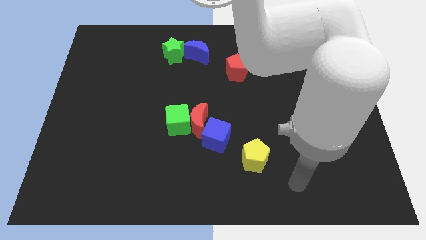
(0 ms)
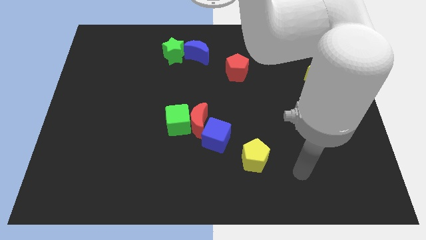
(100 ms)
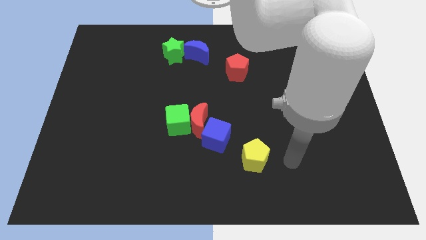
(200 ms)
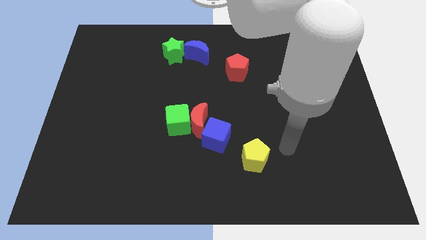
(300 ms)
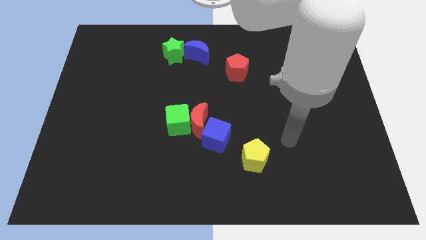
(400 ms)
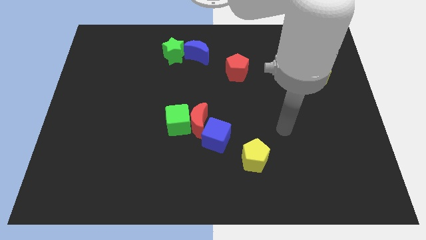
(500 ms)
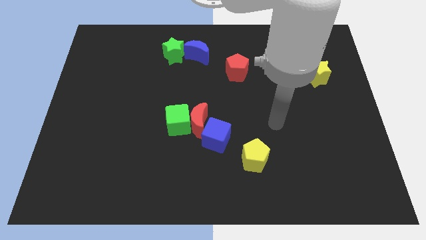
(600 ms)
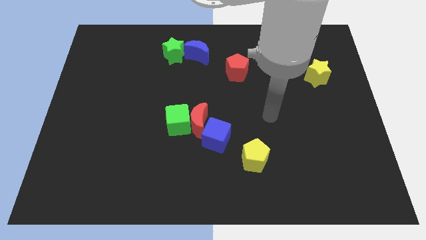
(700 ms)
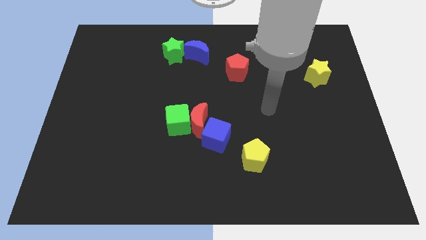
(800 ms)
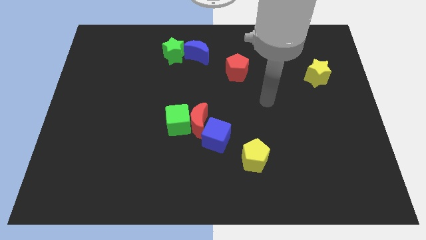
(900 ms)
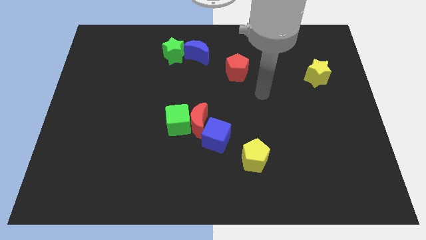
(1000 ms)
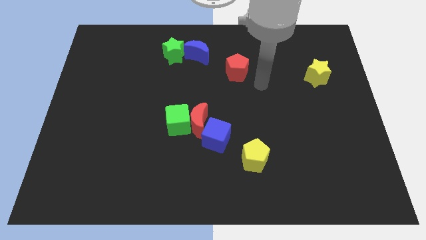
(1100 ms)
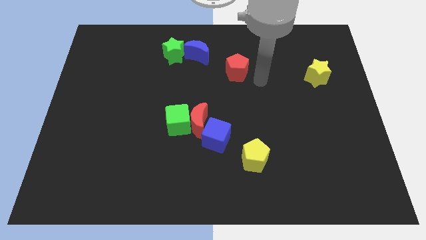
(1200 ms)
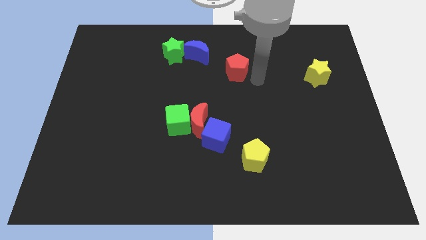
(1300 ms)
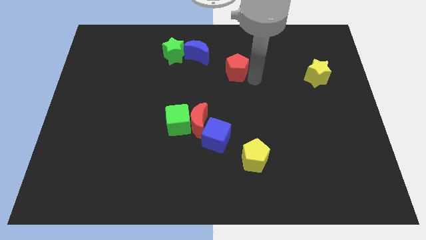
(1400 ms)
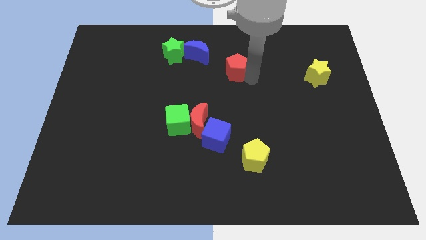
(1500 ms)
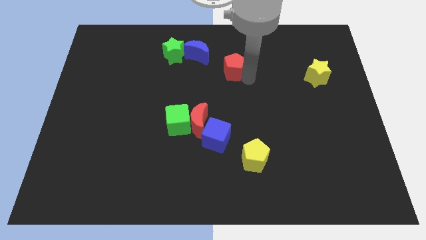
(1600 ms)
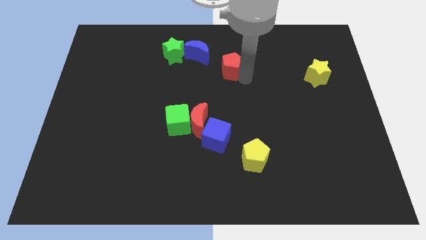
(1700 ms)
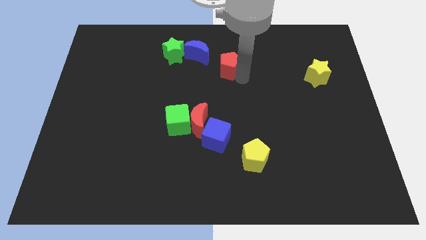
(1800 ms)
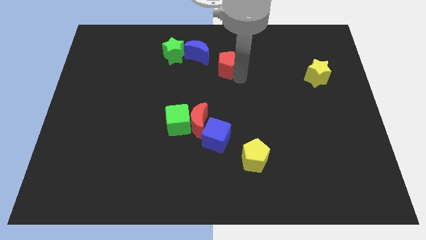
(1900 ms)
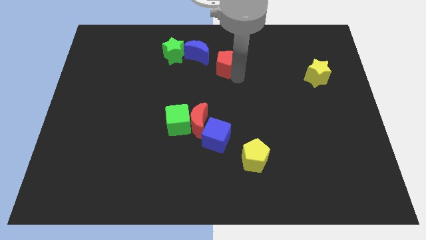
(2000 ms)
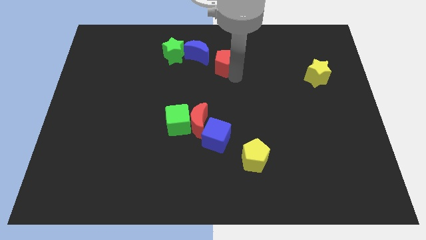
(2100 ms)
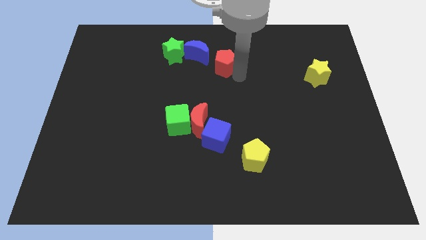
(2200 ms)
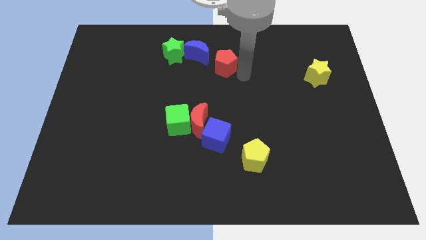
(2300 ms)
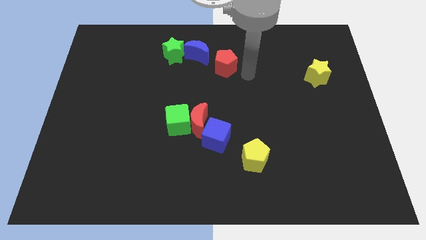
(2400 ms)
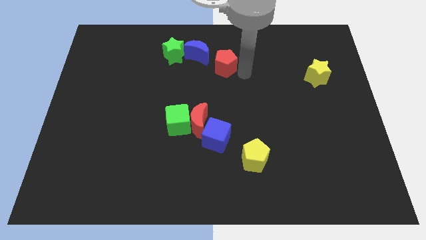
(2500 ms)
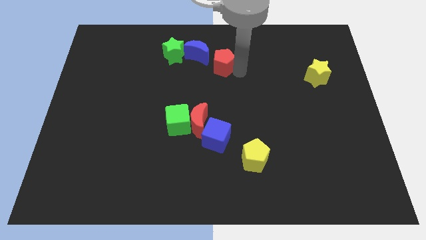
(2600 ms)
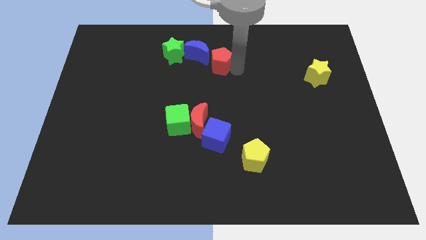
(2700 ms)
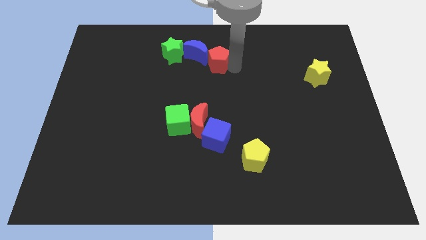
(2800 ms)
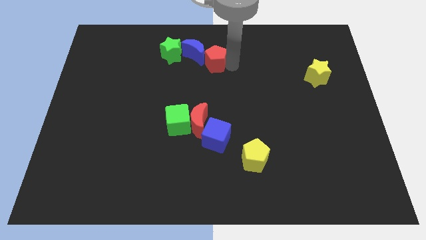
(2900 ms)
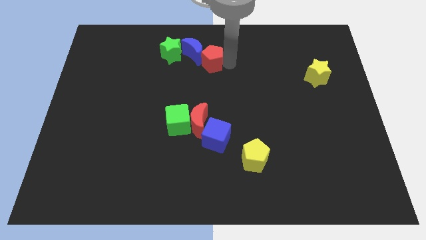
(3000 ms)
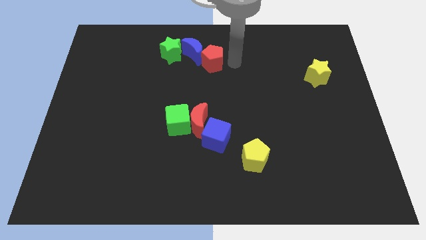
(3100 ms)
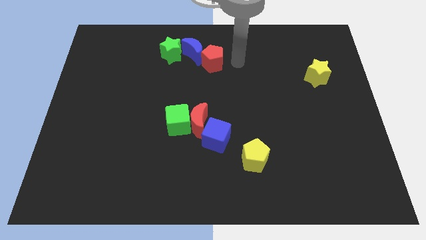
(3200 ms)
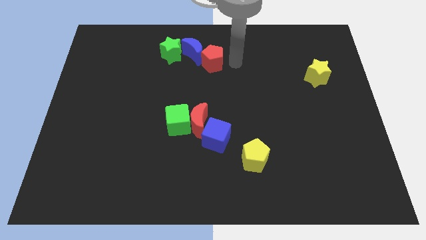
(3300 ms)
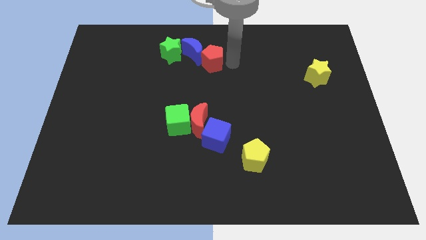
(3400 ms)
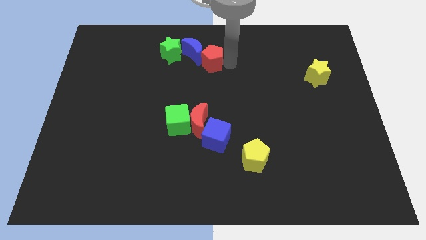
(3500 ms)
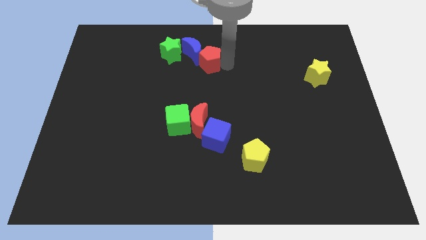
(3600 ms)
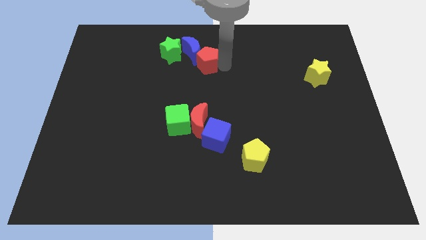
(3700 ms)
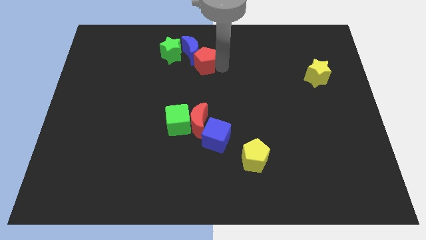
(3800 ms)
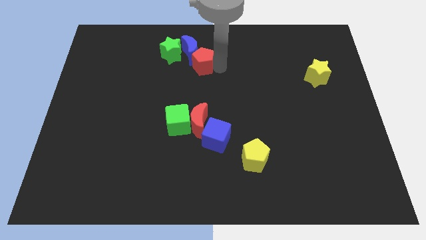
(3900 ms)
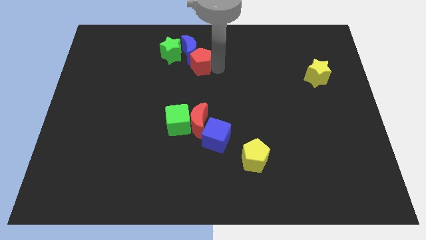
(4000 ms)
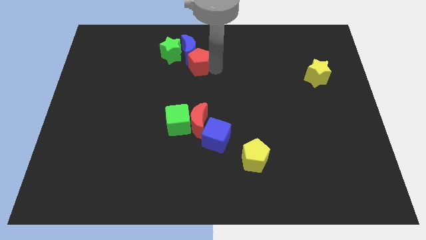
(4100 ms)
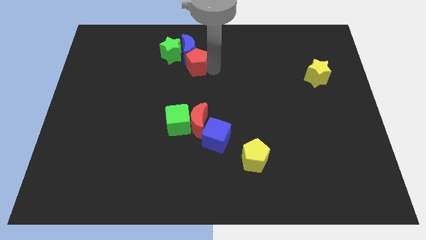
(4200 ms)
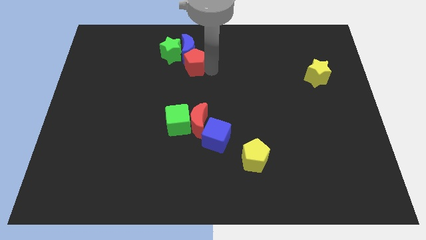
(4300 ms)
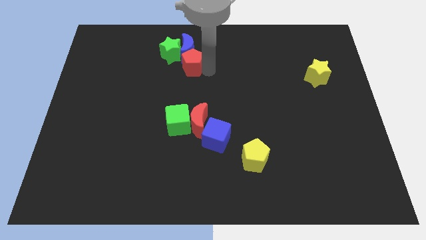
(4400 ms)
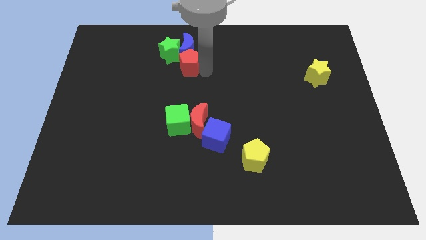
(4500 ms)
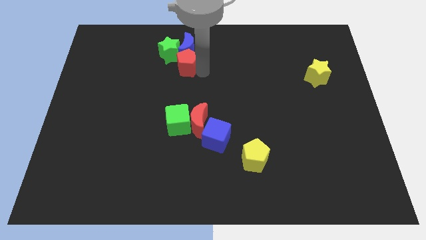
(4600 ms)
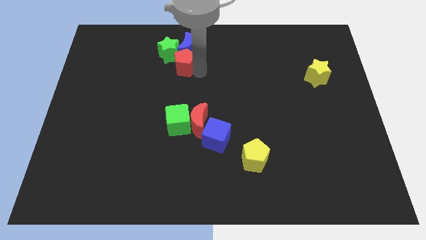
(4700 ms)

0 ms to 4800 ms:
put the red pentagon close to the green star

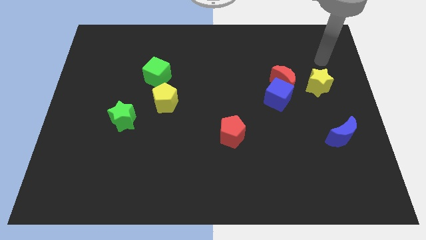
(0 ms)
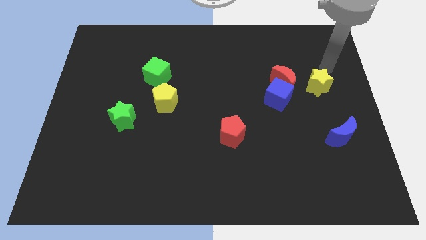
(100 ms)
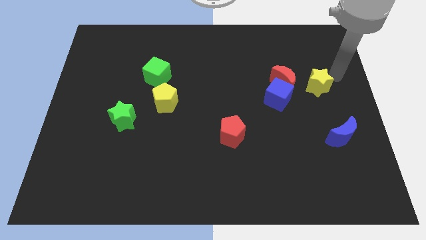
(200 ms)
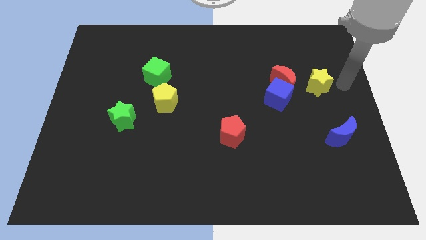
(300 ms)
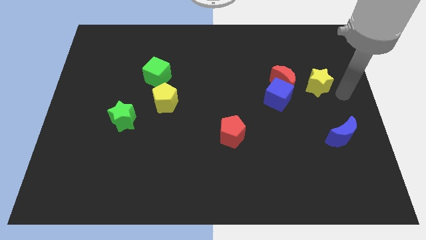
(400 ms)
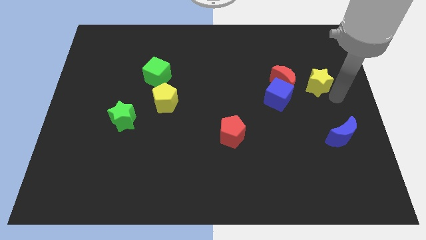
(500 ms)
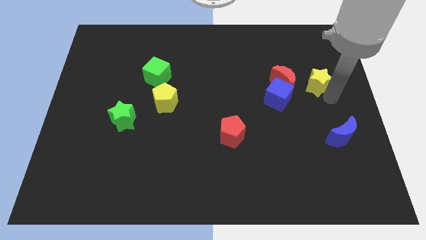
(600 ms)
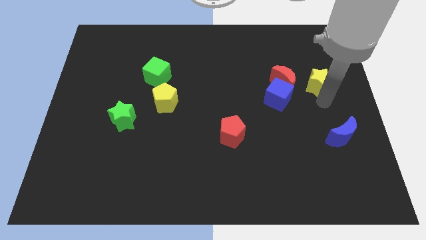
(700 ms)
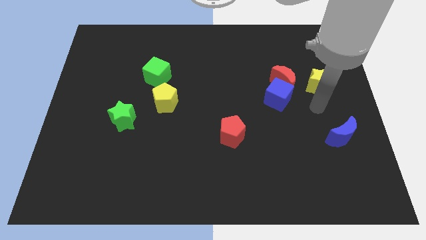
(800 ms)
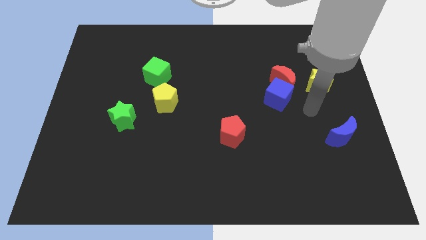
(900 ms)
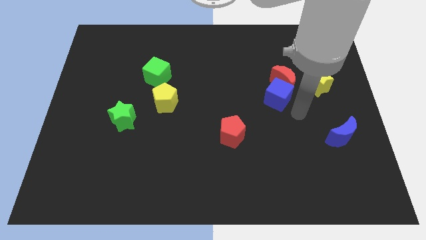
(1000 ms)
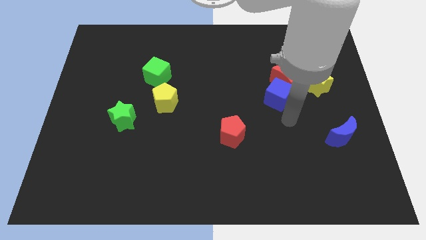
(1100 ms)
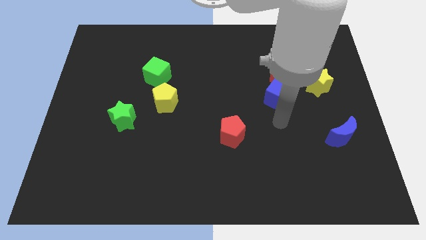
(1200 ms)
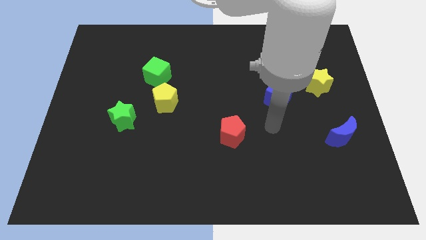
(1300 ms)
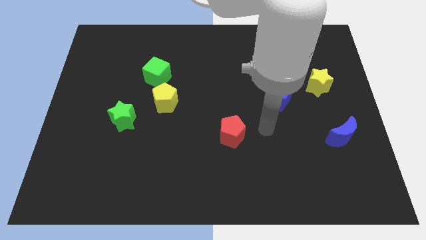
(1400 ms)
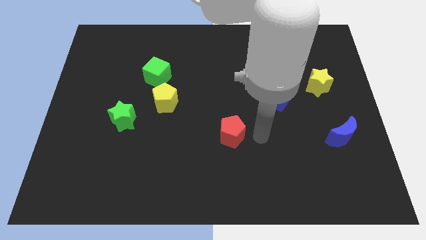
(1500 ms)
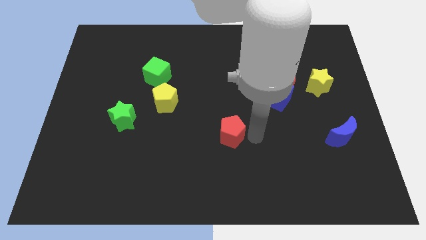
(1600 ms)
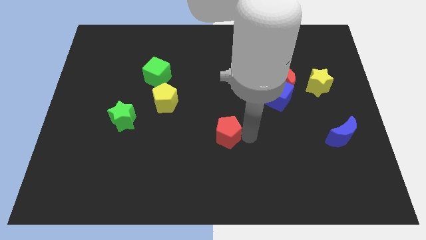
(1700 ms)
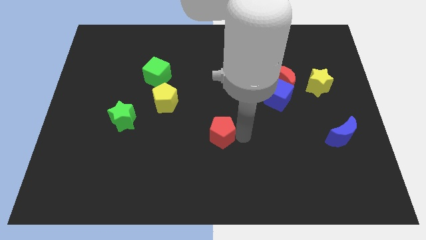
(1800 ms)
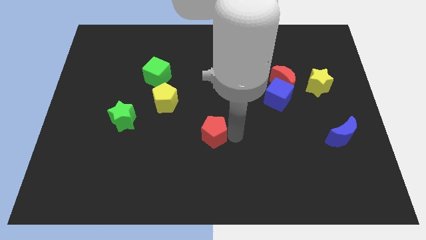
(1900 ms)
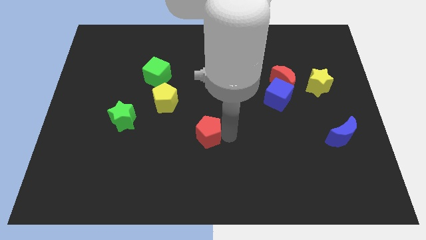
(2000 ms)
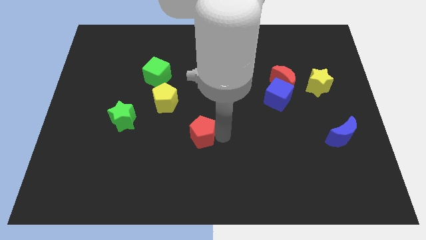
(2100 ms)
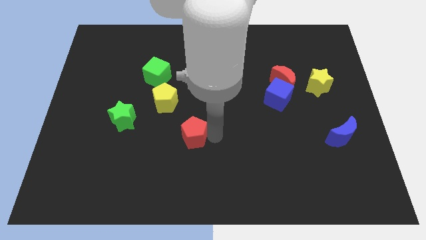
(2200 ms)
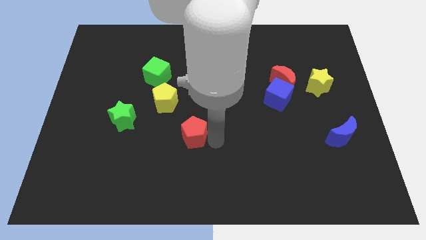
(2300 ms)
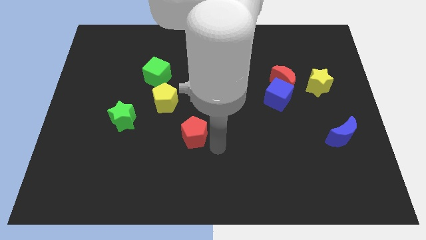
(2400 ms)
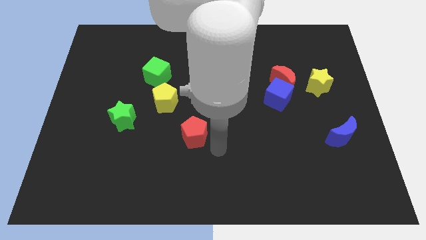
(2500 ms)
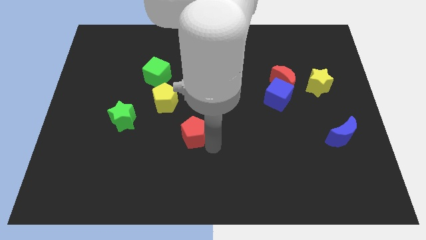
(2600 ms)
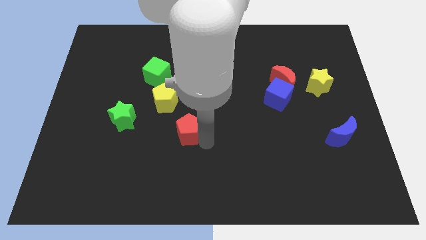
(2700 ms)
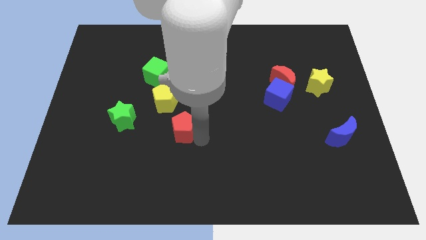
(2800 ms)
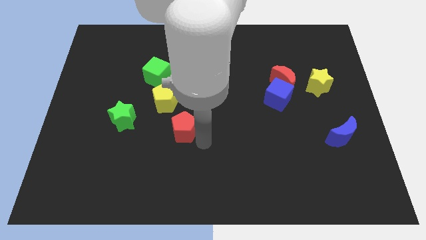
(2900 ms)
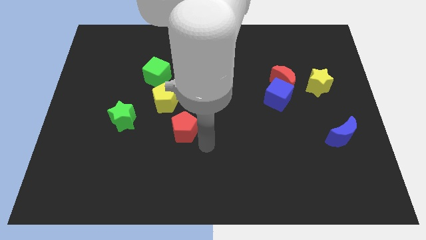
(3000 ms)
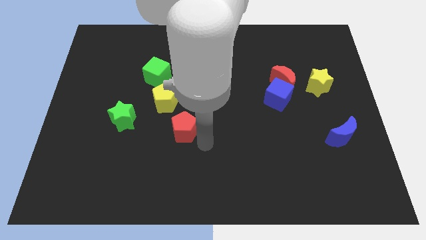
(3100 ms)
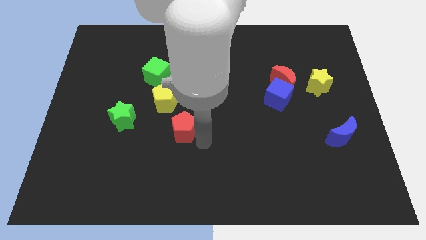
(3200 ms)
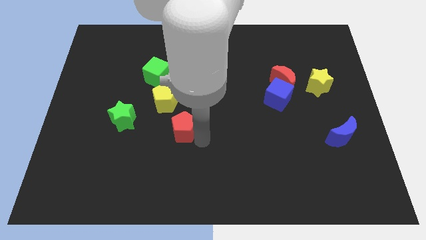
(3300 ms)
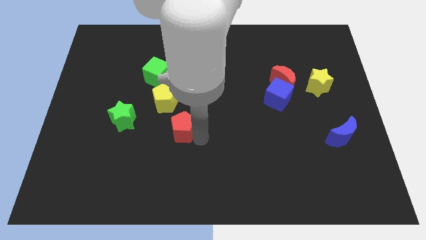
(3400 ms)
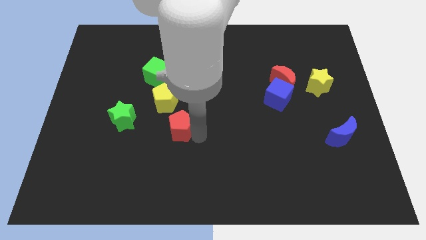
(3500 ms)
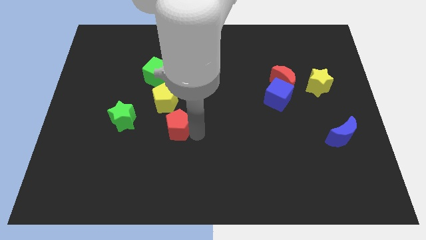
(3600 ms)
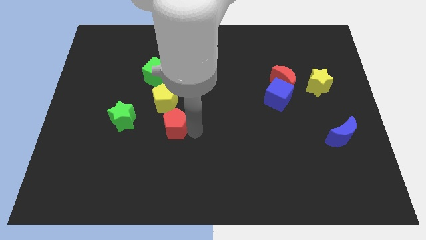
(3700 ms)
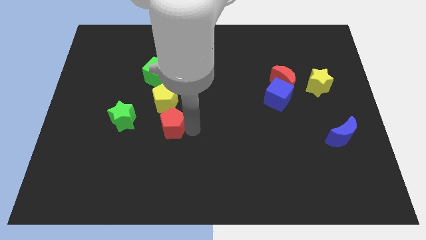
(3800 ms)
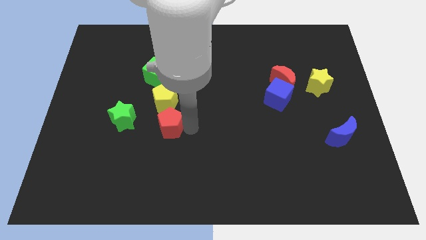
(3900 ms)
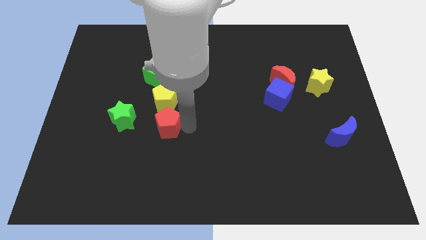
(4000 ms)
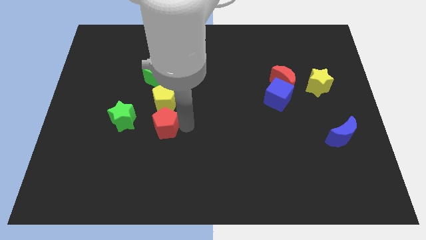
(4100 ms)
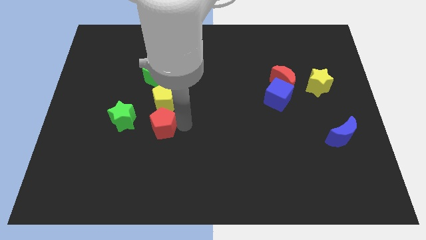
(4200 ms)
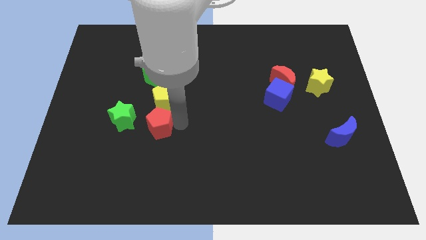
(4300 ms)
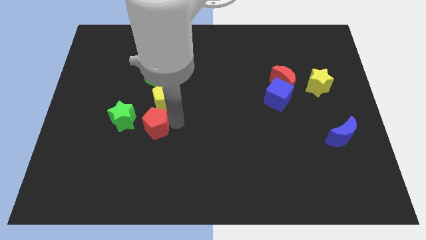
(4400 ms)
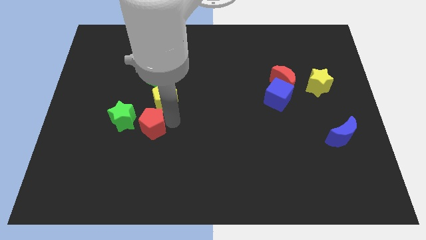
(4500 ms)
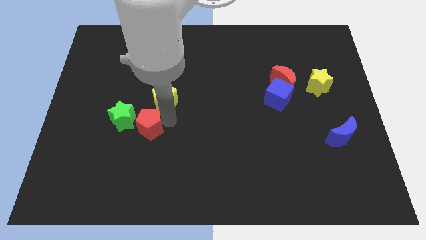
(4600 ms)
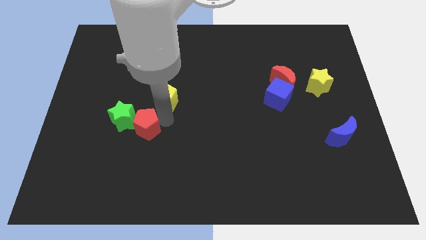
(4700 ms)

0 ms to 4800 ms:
put the red pentagon next to the green star
